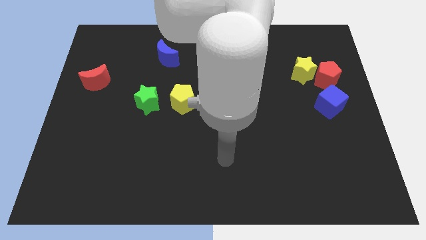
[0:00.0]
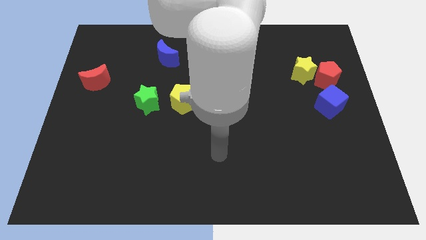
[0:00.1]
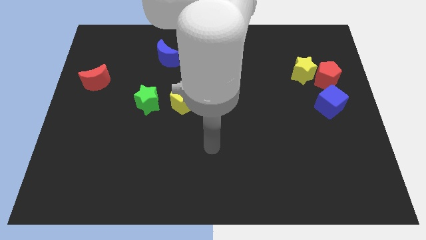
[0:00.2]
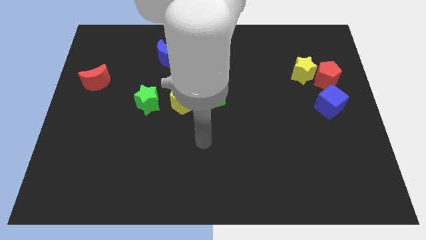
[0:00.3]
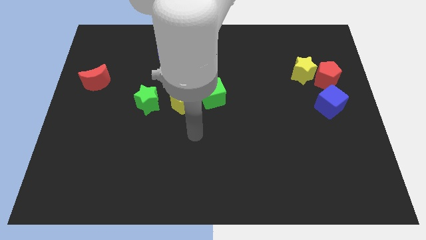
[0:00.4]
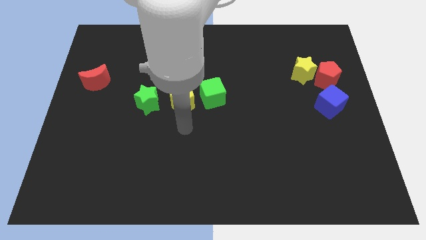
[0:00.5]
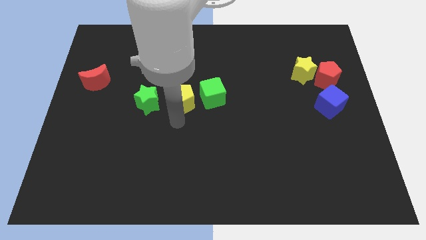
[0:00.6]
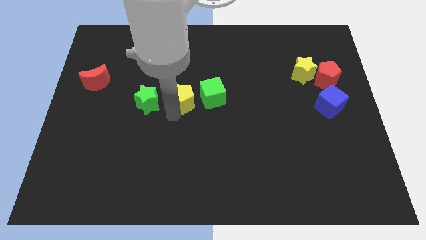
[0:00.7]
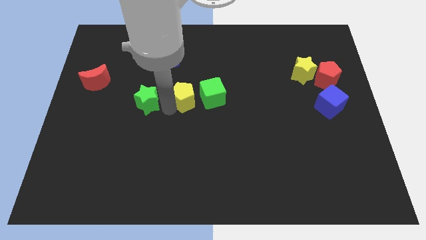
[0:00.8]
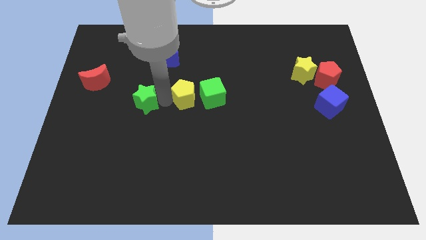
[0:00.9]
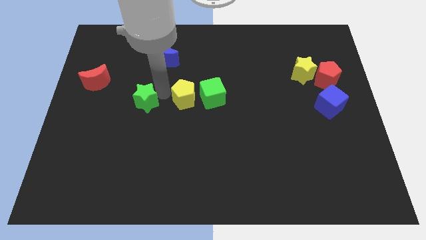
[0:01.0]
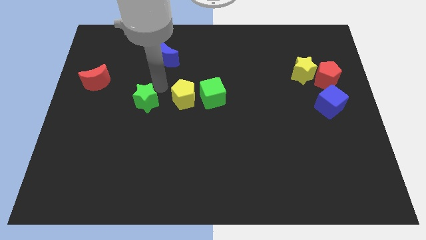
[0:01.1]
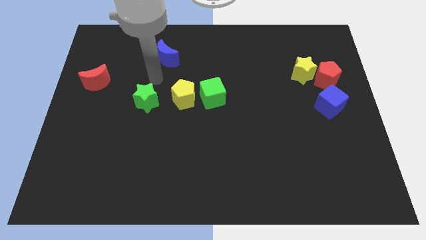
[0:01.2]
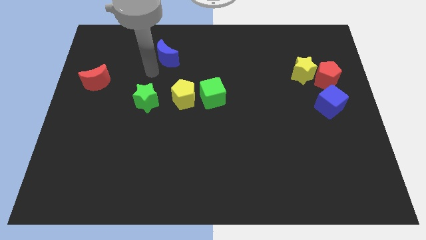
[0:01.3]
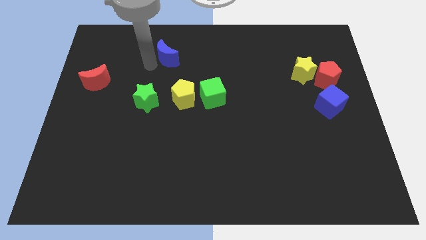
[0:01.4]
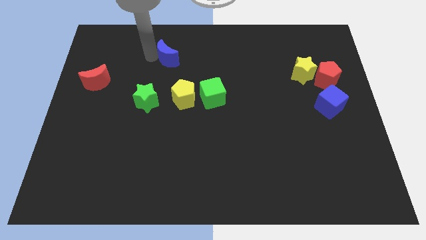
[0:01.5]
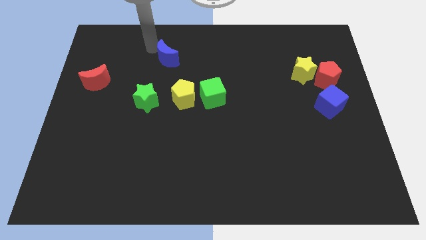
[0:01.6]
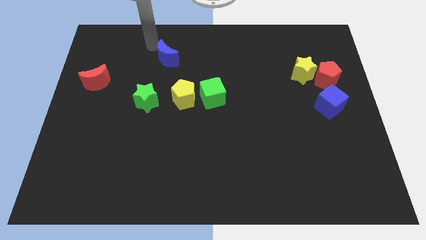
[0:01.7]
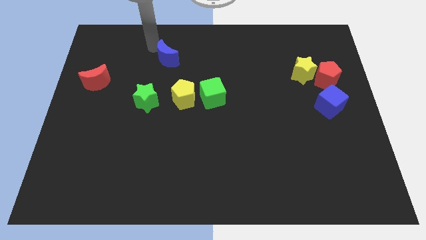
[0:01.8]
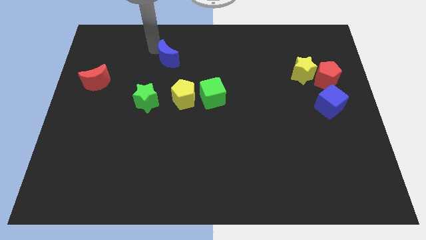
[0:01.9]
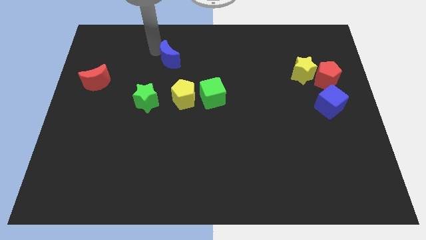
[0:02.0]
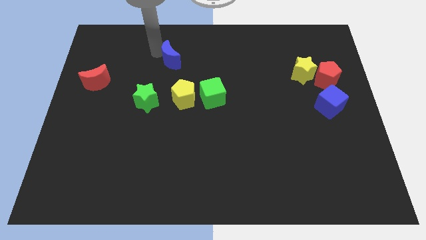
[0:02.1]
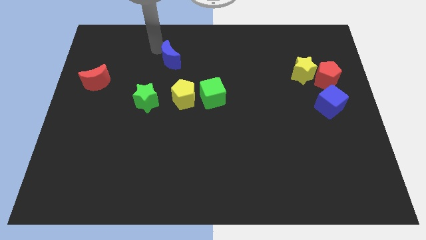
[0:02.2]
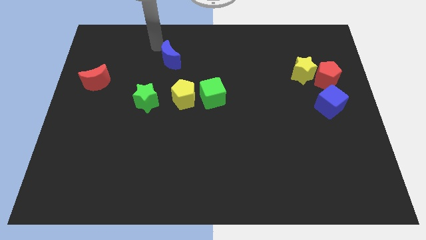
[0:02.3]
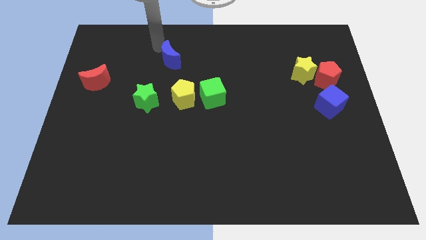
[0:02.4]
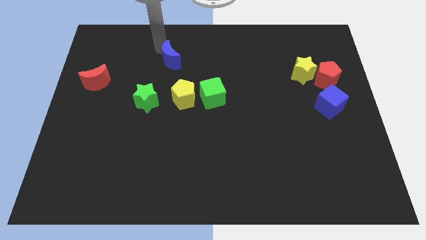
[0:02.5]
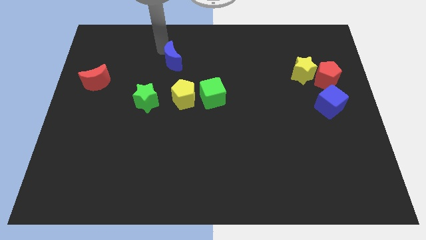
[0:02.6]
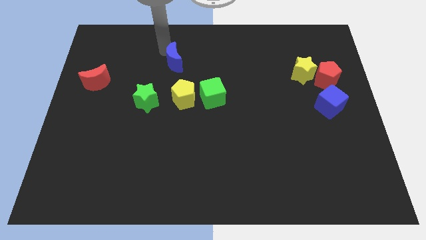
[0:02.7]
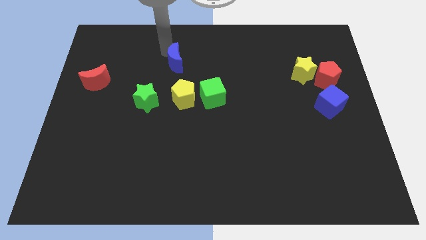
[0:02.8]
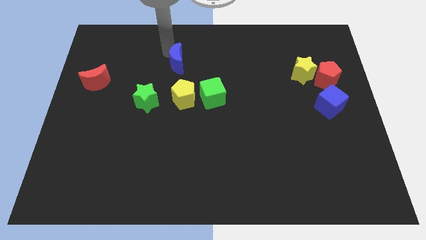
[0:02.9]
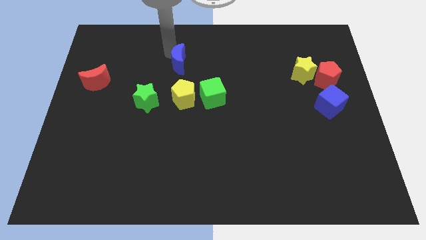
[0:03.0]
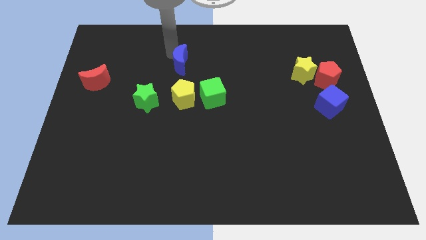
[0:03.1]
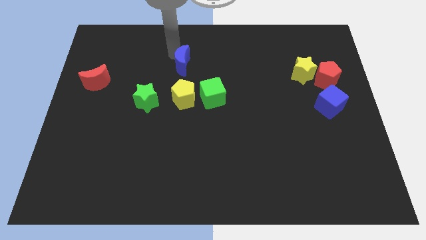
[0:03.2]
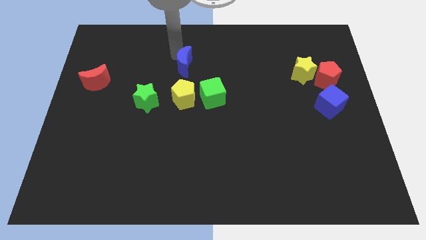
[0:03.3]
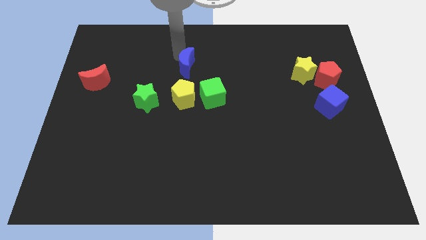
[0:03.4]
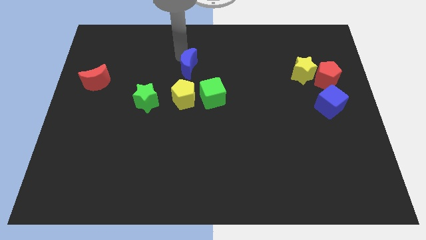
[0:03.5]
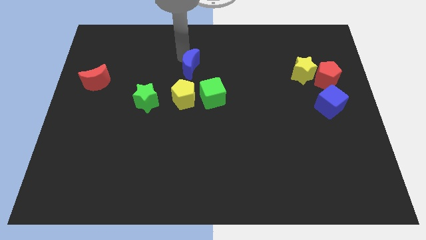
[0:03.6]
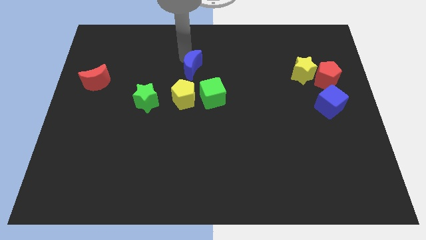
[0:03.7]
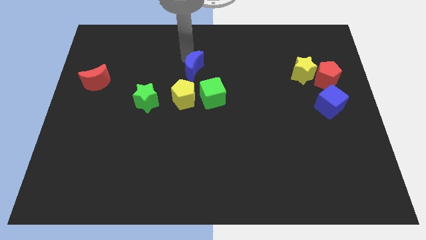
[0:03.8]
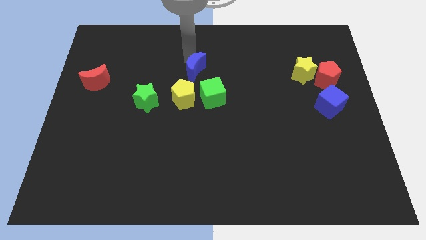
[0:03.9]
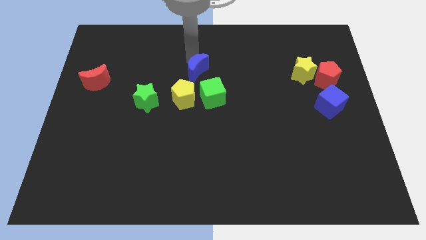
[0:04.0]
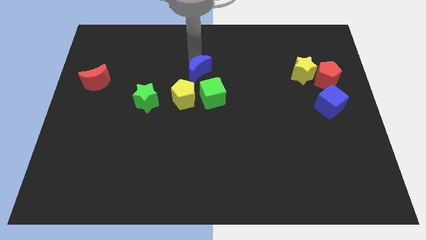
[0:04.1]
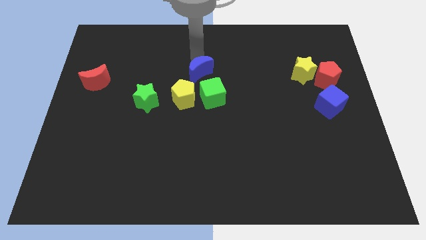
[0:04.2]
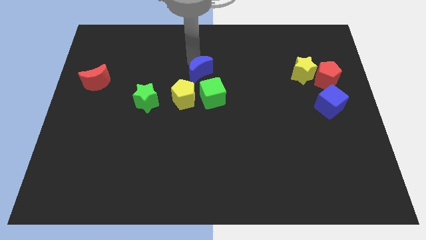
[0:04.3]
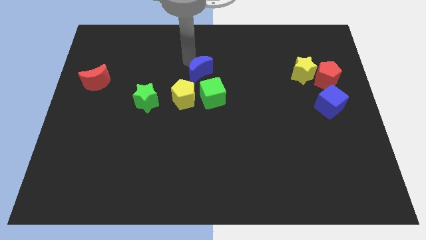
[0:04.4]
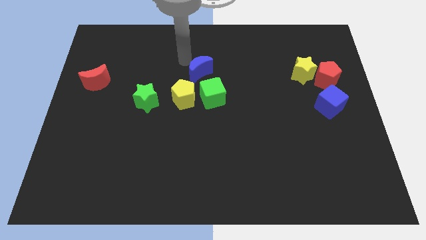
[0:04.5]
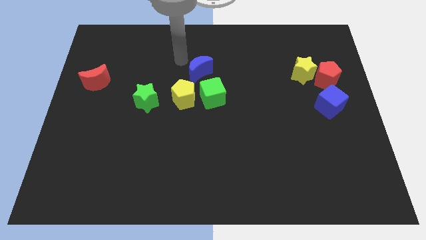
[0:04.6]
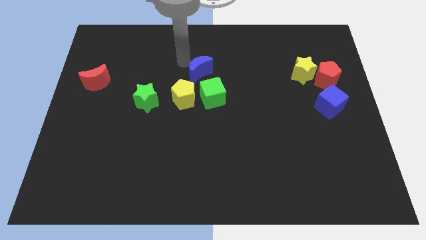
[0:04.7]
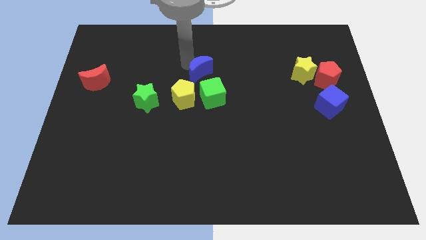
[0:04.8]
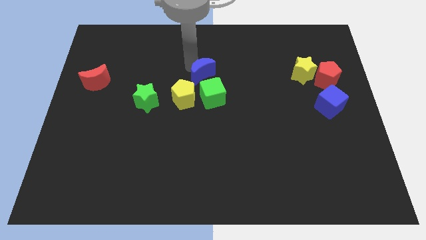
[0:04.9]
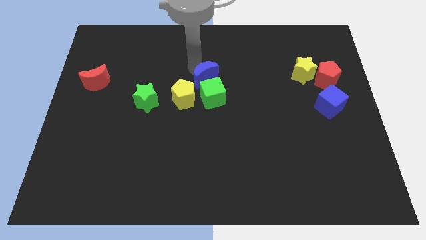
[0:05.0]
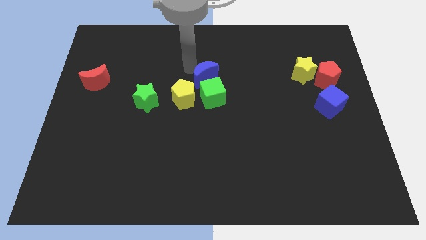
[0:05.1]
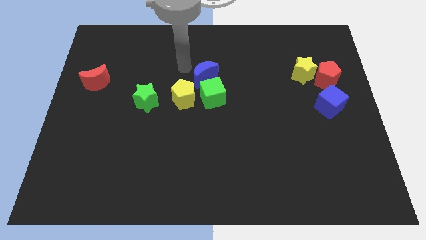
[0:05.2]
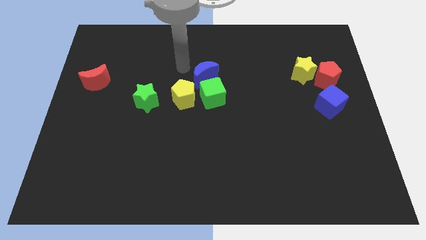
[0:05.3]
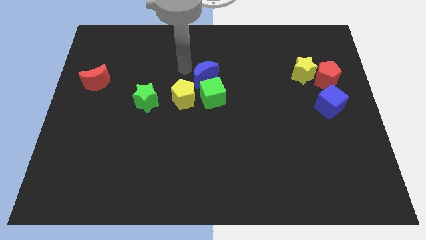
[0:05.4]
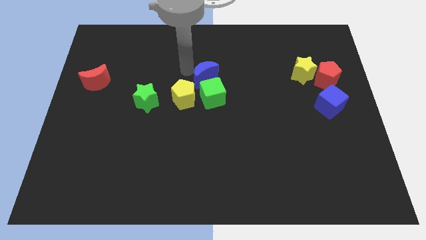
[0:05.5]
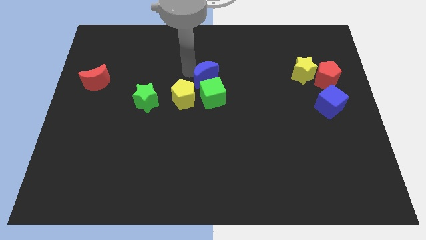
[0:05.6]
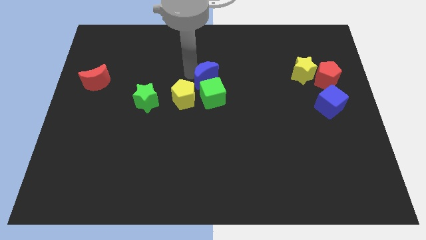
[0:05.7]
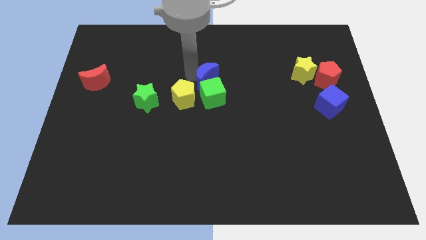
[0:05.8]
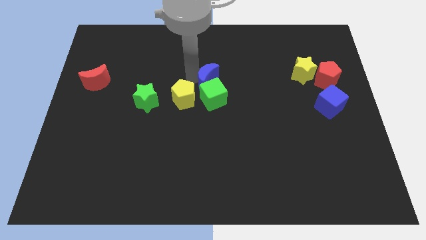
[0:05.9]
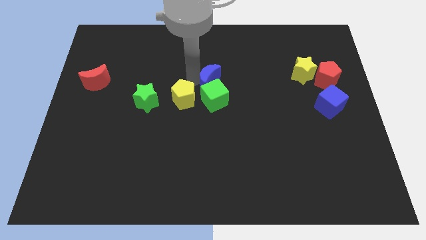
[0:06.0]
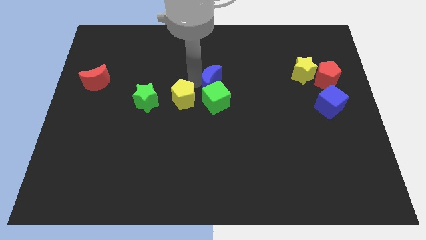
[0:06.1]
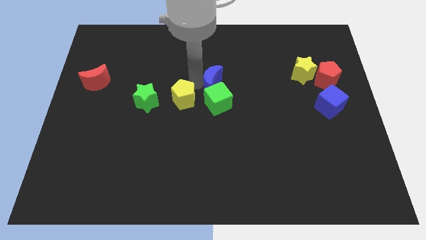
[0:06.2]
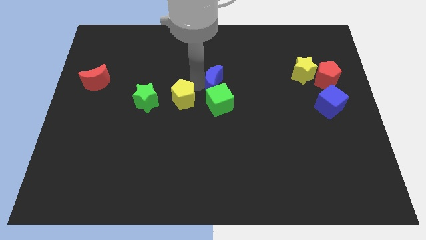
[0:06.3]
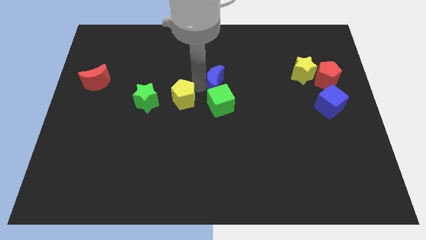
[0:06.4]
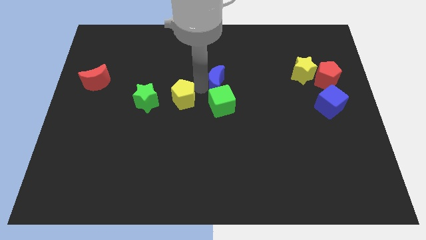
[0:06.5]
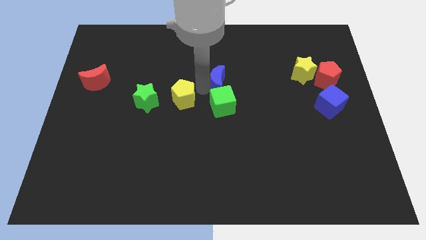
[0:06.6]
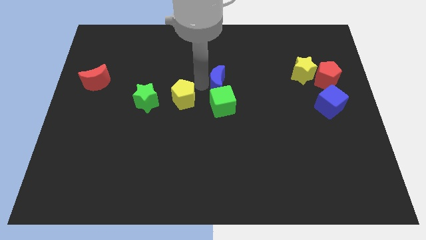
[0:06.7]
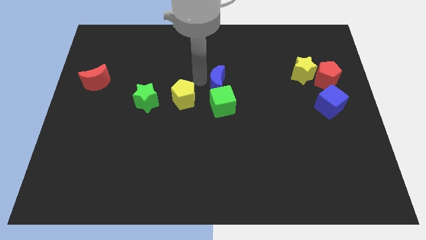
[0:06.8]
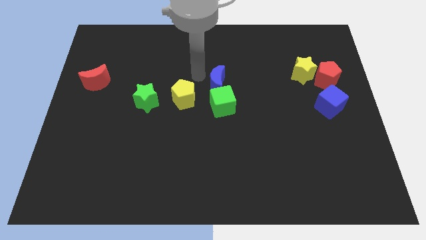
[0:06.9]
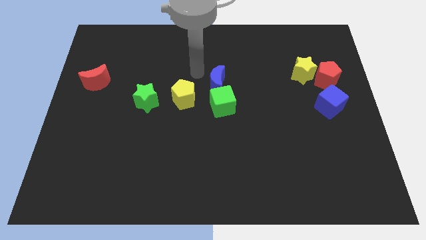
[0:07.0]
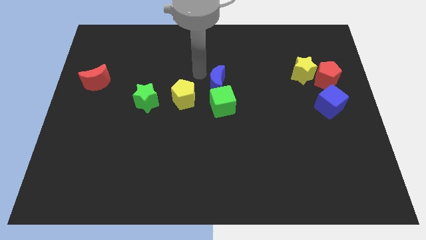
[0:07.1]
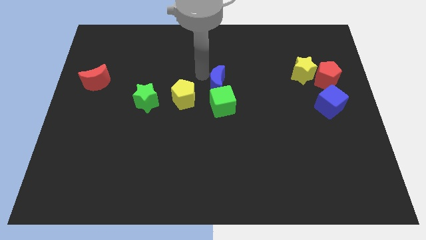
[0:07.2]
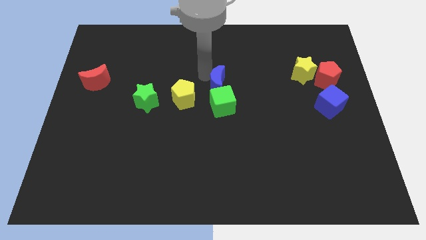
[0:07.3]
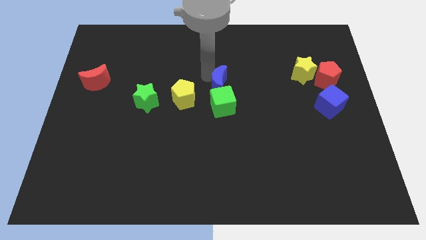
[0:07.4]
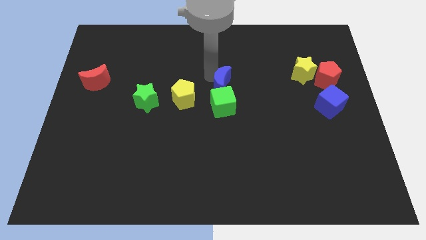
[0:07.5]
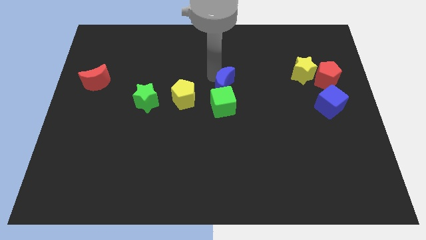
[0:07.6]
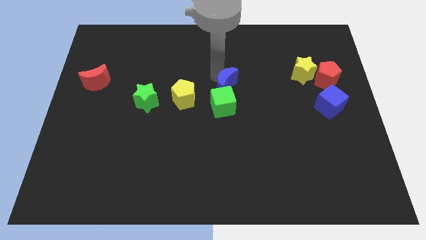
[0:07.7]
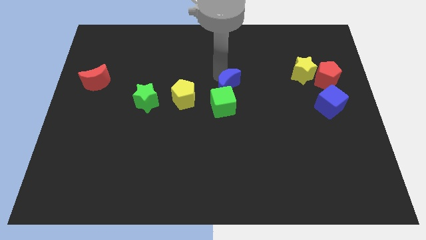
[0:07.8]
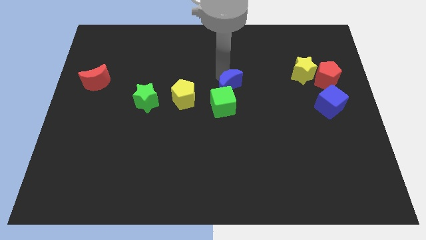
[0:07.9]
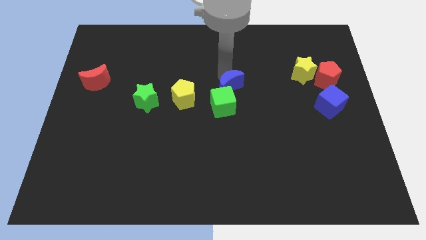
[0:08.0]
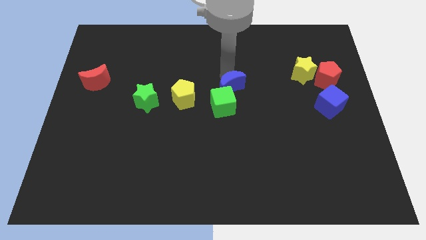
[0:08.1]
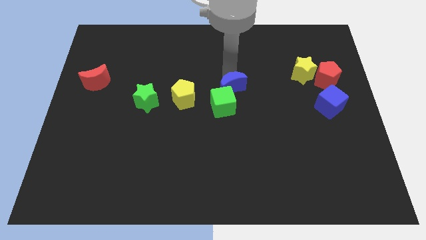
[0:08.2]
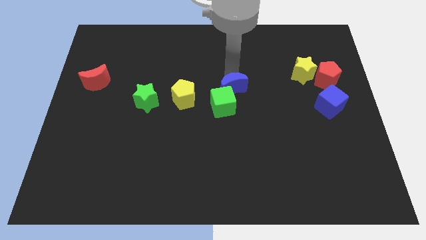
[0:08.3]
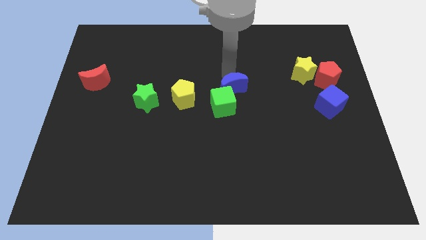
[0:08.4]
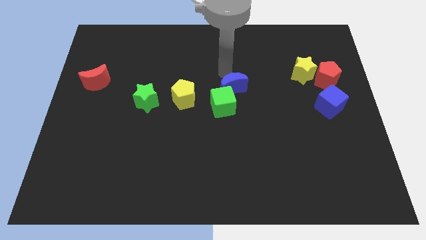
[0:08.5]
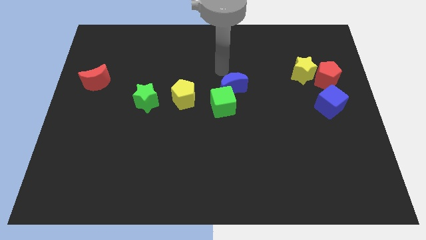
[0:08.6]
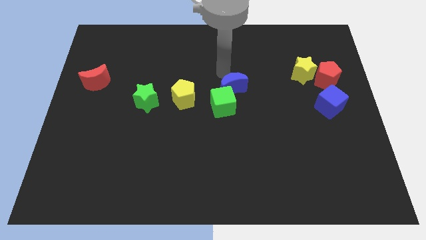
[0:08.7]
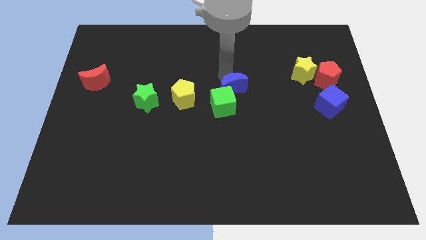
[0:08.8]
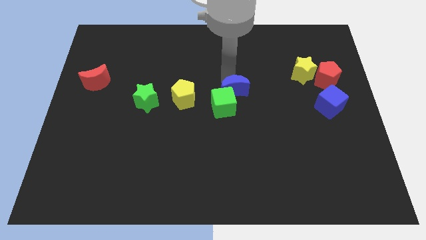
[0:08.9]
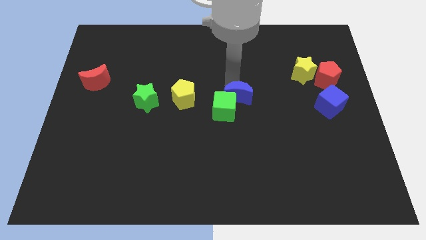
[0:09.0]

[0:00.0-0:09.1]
push the blue moon diagonally down and to the right
